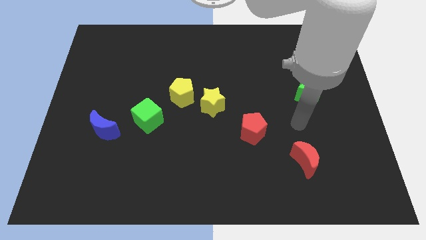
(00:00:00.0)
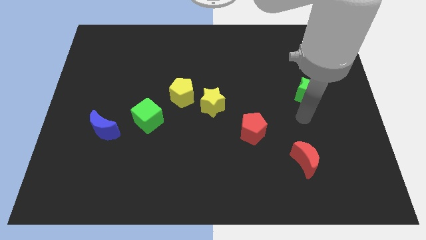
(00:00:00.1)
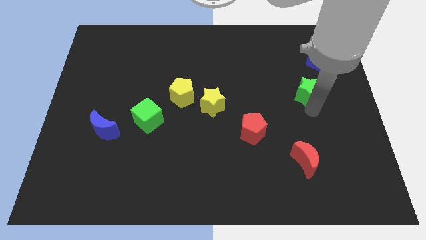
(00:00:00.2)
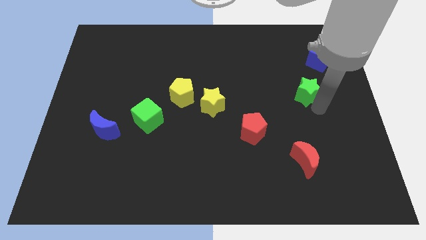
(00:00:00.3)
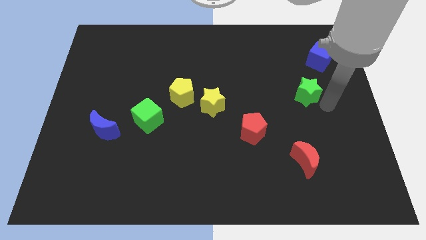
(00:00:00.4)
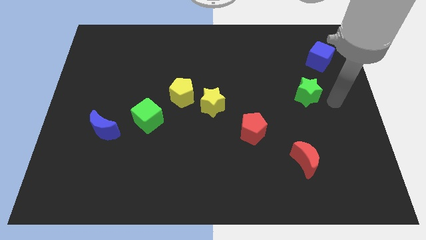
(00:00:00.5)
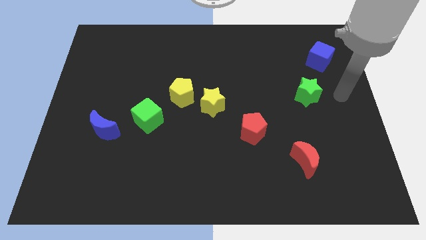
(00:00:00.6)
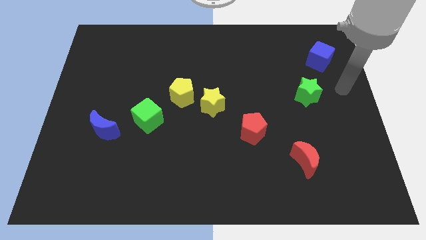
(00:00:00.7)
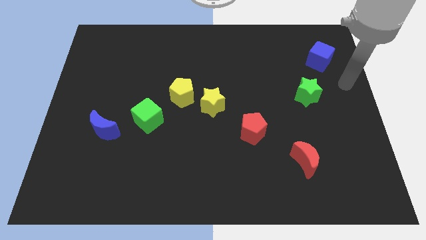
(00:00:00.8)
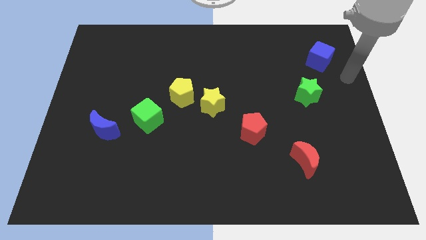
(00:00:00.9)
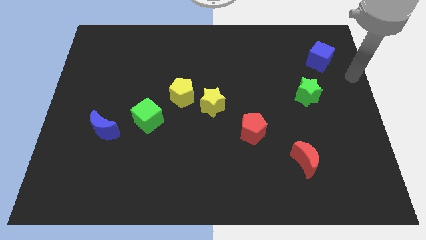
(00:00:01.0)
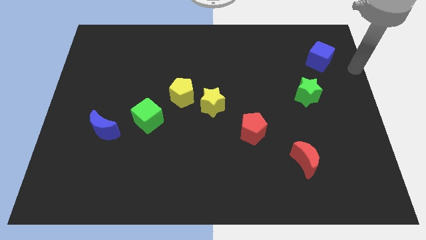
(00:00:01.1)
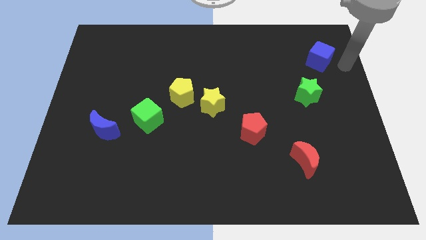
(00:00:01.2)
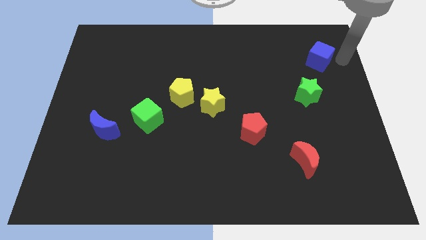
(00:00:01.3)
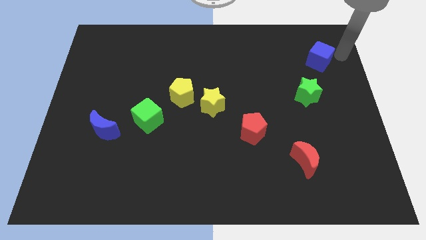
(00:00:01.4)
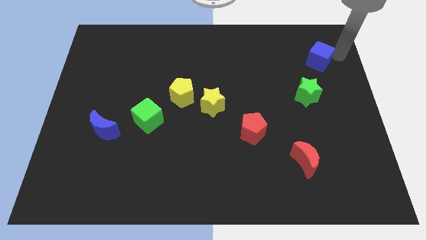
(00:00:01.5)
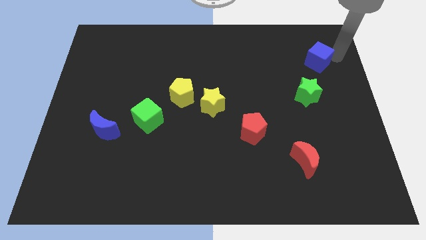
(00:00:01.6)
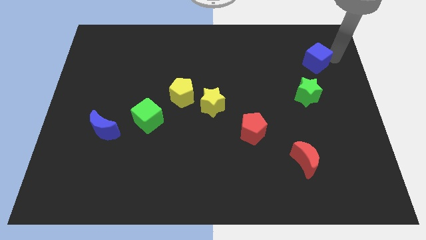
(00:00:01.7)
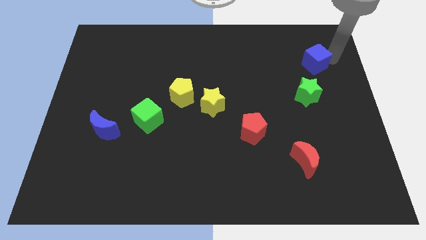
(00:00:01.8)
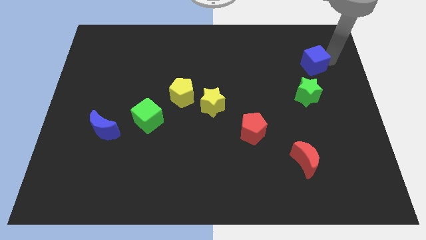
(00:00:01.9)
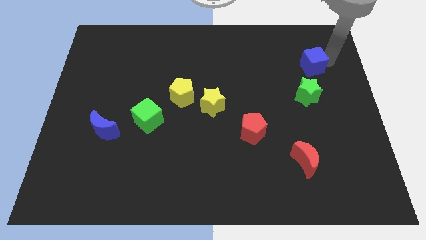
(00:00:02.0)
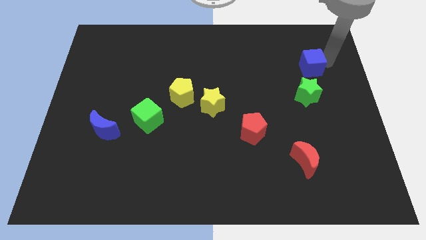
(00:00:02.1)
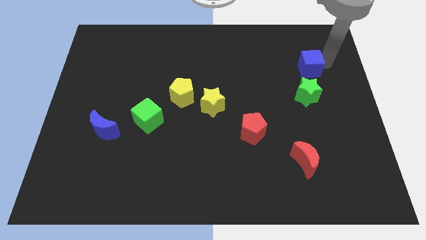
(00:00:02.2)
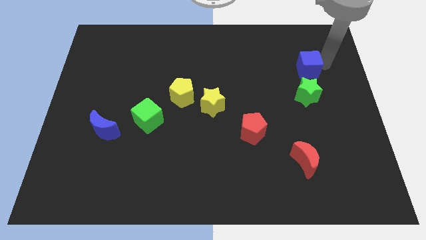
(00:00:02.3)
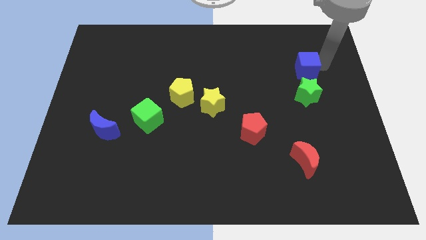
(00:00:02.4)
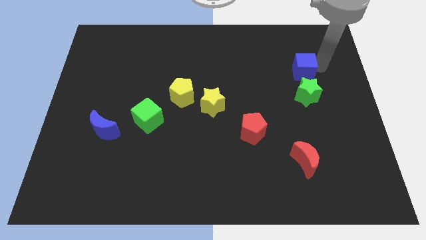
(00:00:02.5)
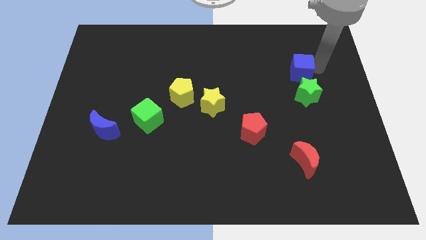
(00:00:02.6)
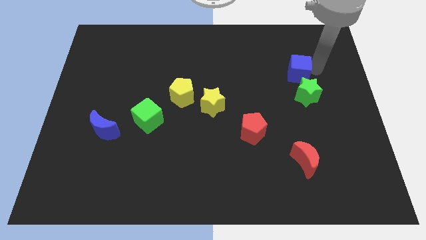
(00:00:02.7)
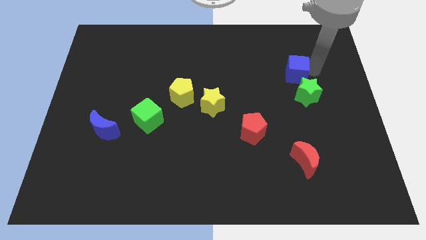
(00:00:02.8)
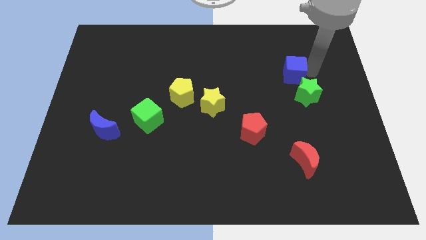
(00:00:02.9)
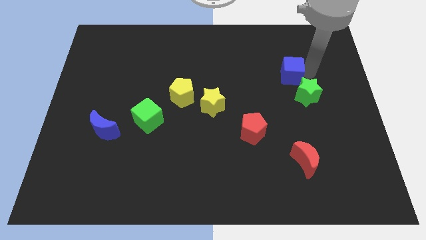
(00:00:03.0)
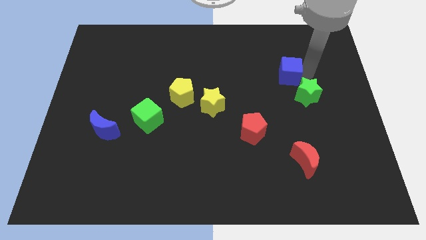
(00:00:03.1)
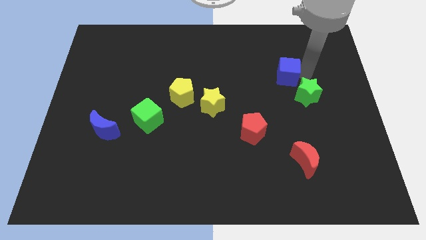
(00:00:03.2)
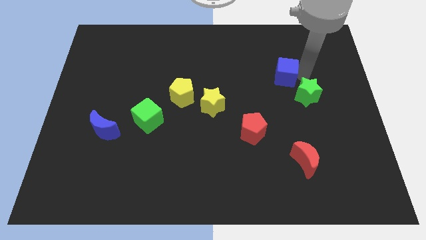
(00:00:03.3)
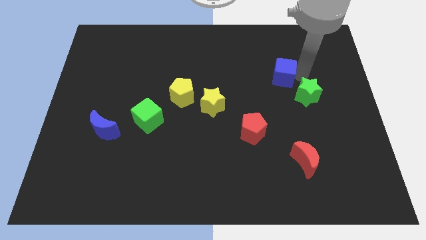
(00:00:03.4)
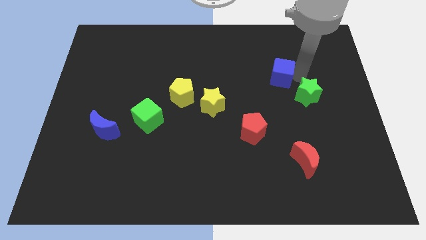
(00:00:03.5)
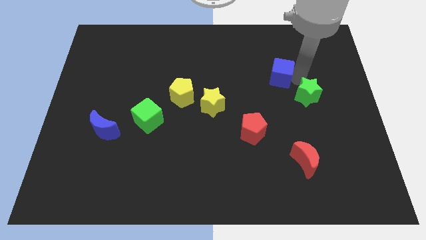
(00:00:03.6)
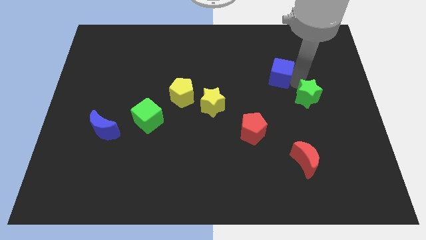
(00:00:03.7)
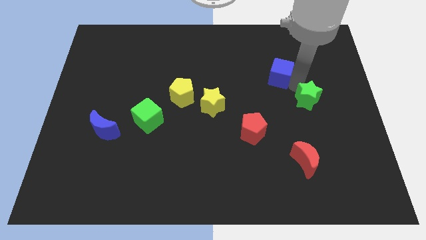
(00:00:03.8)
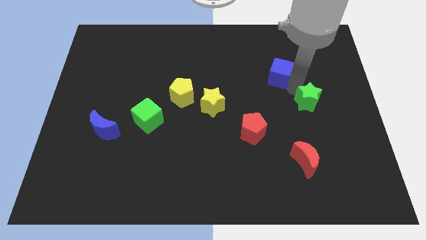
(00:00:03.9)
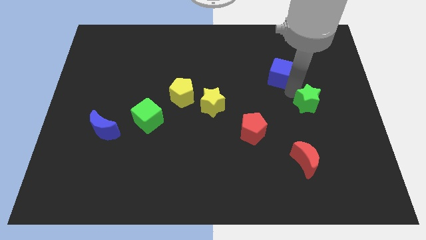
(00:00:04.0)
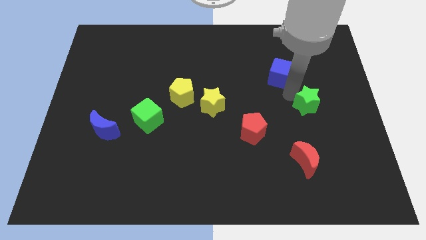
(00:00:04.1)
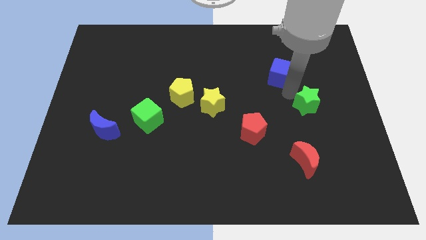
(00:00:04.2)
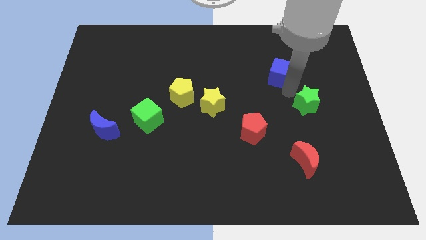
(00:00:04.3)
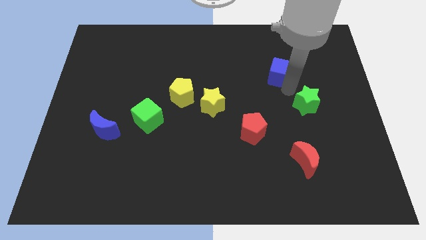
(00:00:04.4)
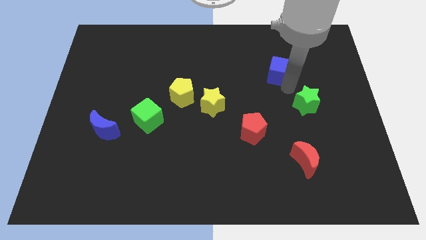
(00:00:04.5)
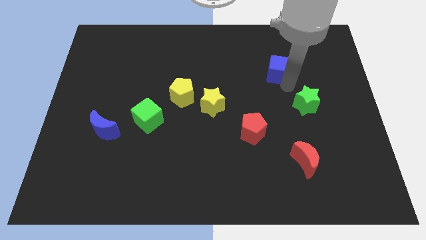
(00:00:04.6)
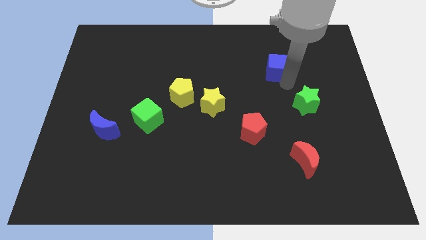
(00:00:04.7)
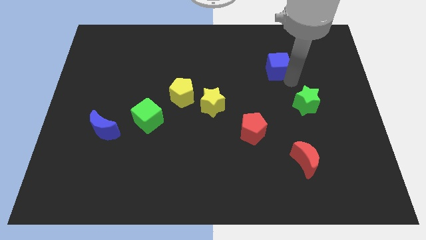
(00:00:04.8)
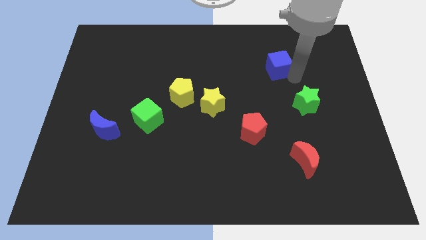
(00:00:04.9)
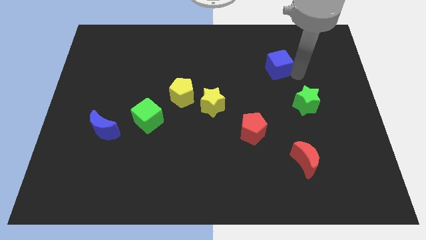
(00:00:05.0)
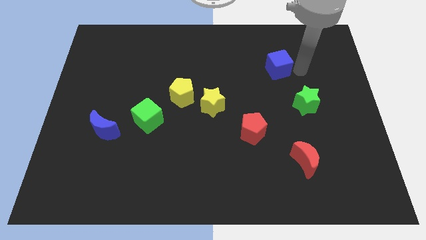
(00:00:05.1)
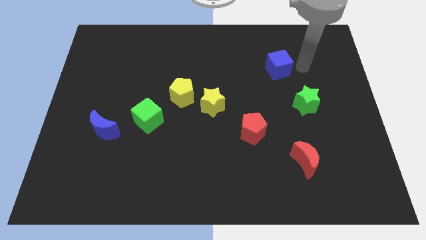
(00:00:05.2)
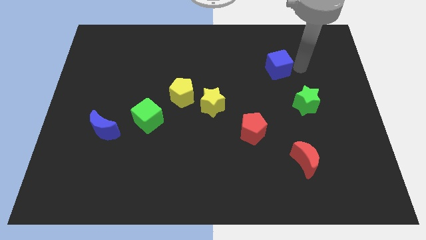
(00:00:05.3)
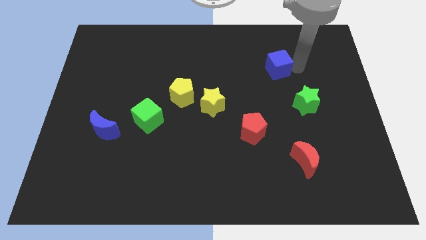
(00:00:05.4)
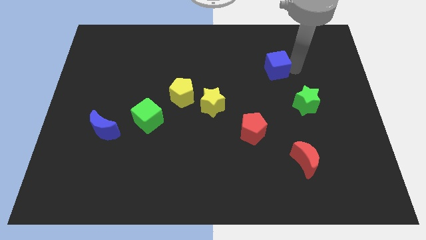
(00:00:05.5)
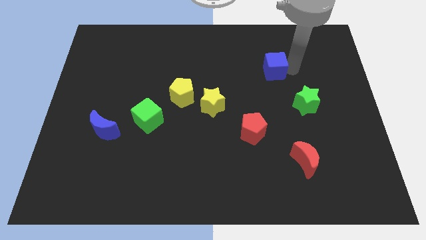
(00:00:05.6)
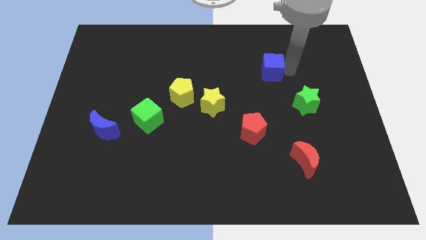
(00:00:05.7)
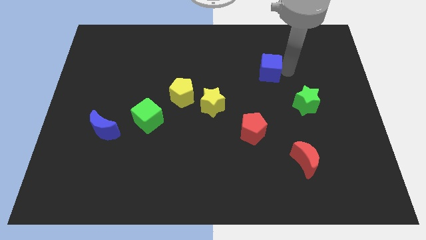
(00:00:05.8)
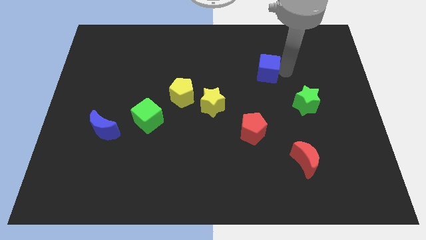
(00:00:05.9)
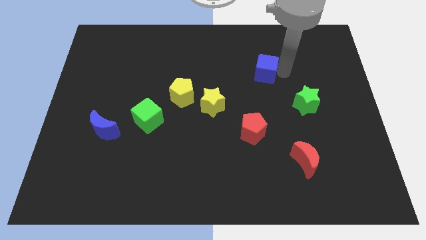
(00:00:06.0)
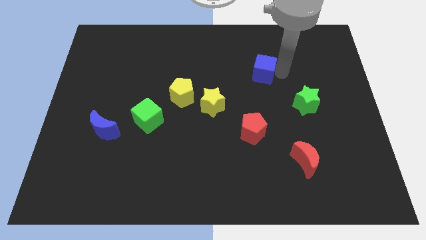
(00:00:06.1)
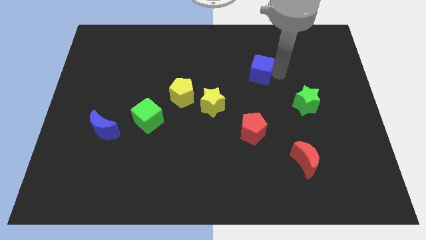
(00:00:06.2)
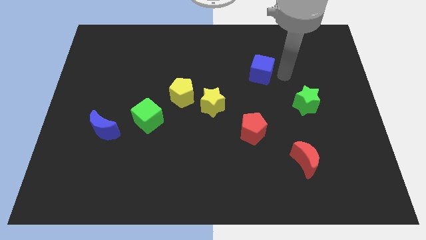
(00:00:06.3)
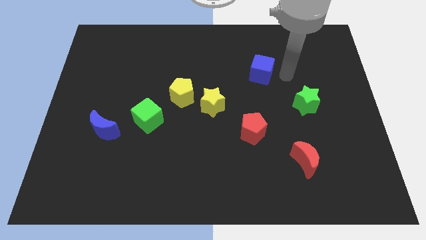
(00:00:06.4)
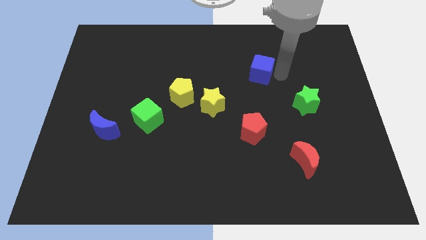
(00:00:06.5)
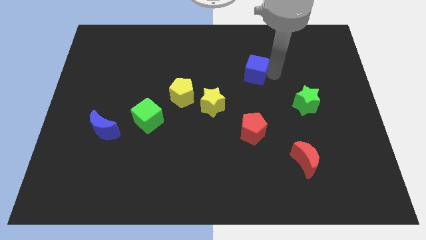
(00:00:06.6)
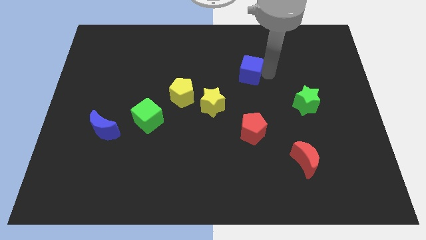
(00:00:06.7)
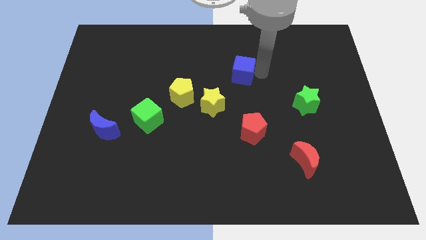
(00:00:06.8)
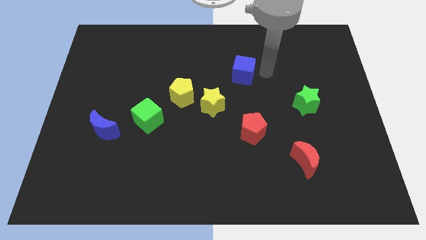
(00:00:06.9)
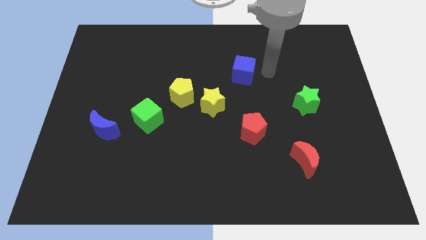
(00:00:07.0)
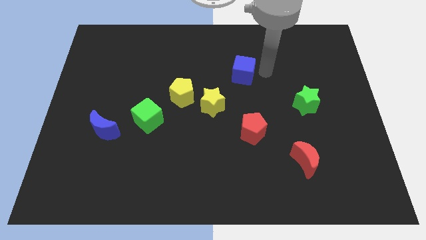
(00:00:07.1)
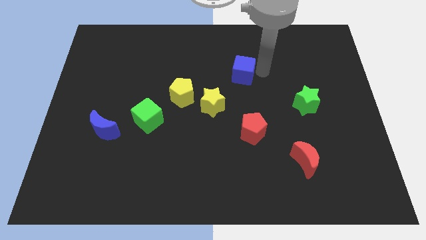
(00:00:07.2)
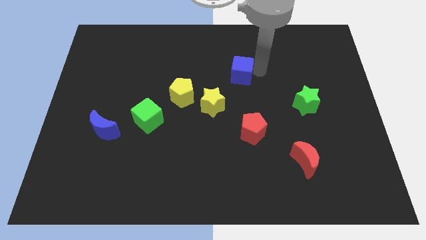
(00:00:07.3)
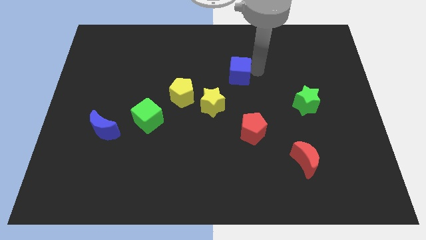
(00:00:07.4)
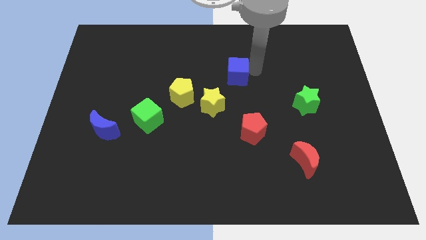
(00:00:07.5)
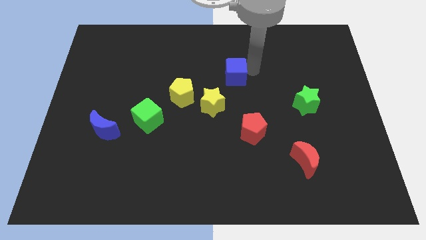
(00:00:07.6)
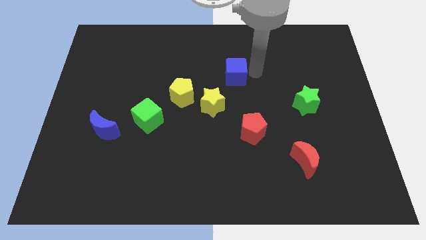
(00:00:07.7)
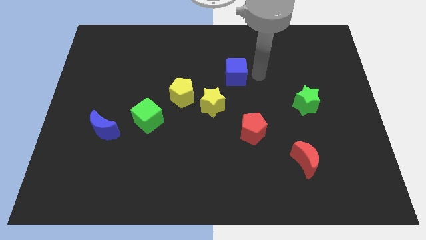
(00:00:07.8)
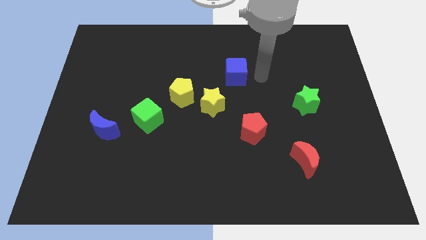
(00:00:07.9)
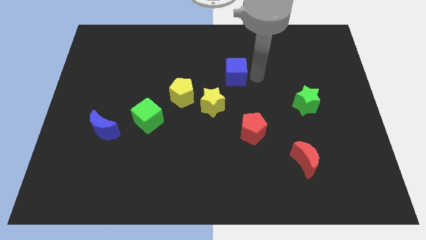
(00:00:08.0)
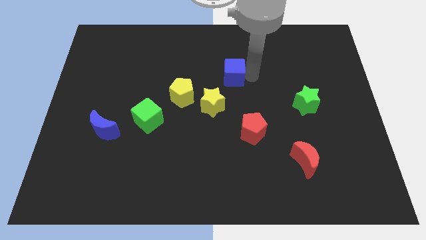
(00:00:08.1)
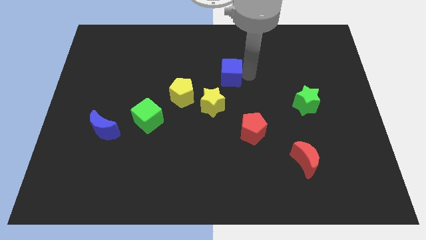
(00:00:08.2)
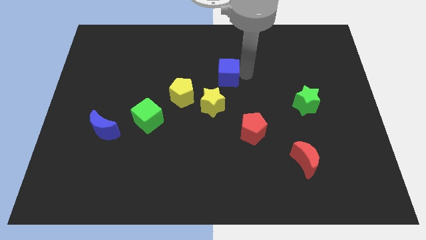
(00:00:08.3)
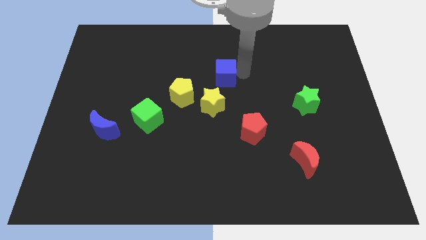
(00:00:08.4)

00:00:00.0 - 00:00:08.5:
slide the blue cube to the top right side of the yellow pentagon
